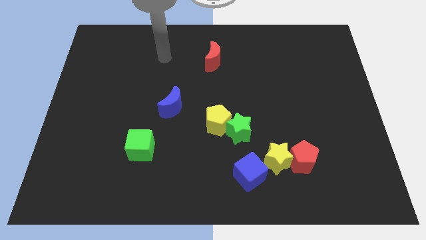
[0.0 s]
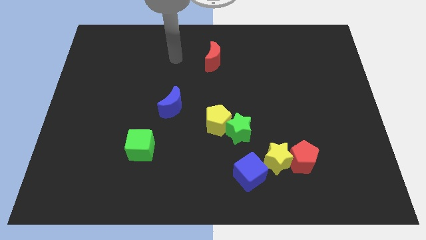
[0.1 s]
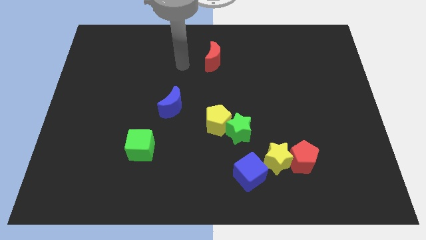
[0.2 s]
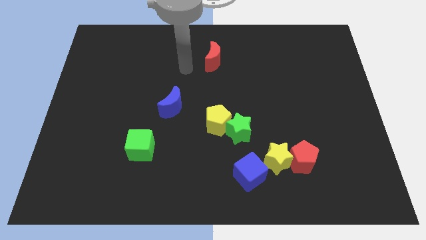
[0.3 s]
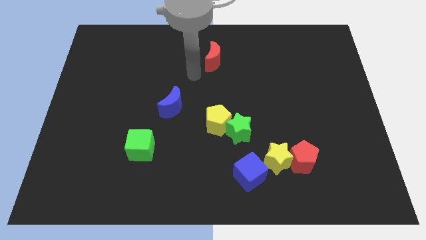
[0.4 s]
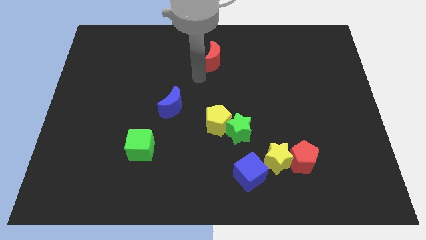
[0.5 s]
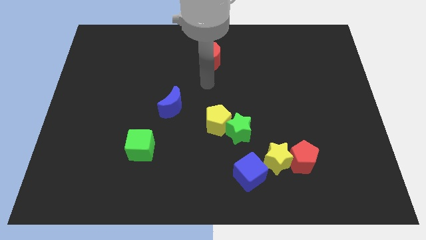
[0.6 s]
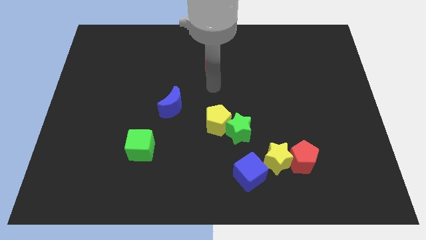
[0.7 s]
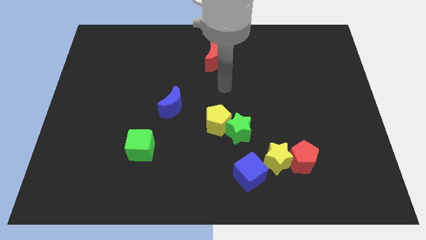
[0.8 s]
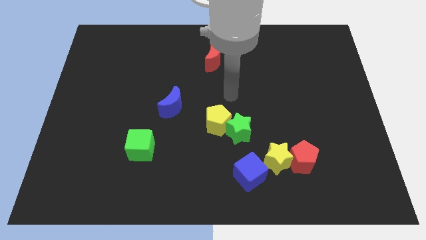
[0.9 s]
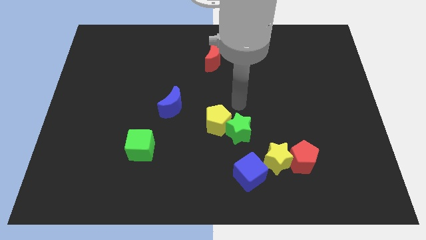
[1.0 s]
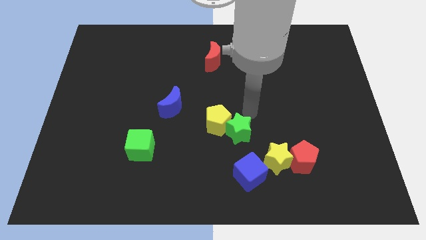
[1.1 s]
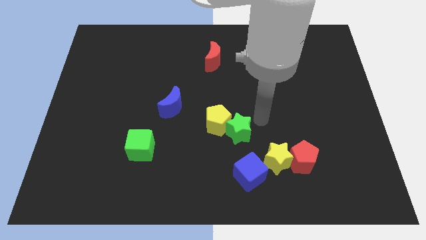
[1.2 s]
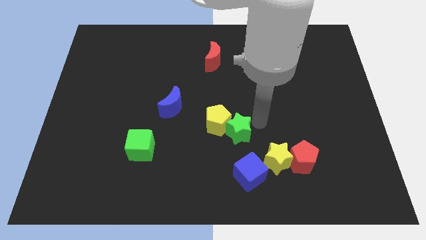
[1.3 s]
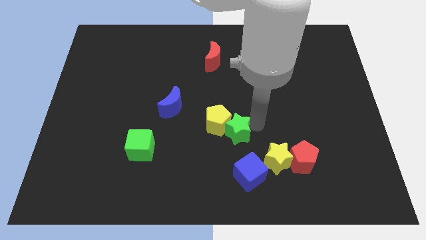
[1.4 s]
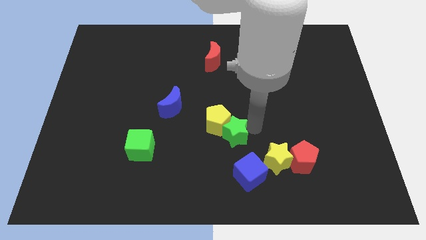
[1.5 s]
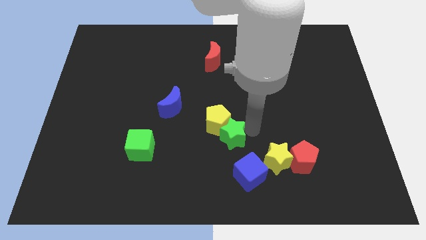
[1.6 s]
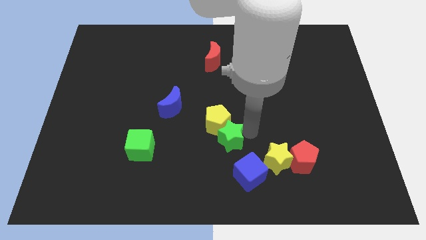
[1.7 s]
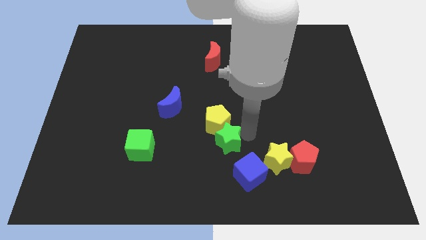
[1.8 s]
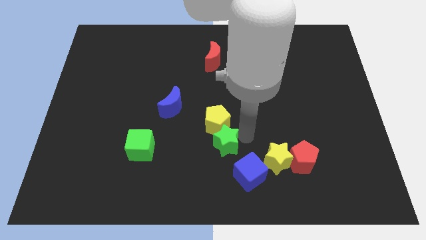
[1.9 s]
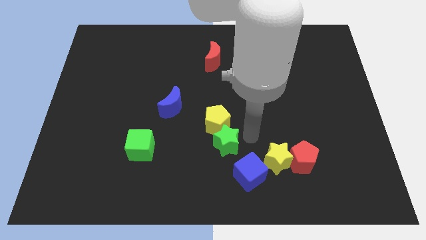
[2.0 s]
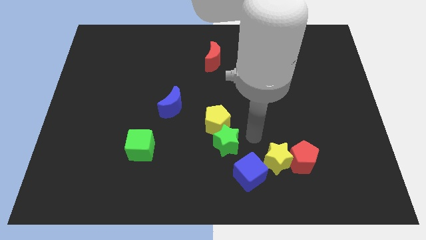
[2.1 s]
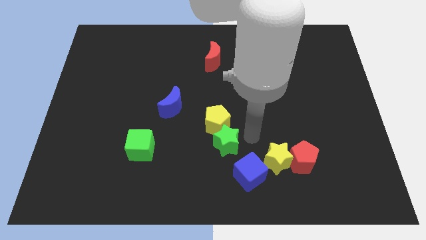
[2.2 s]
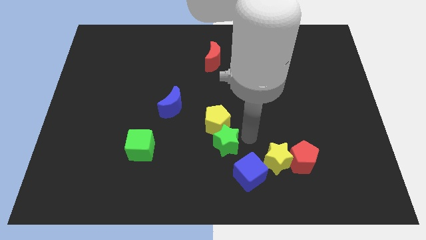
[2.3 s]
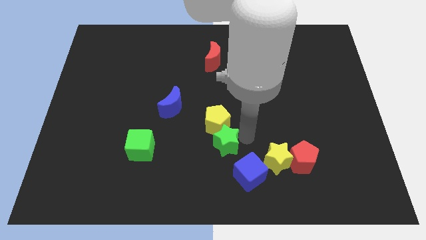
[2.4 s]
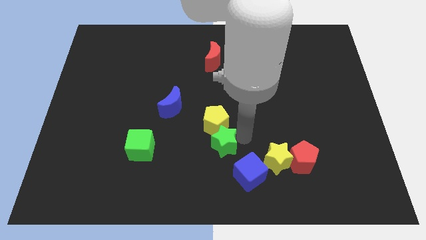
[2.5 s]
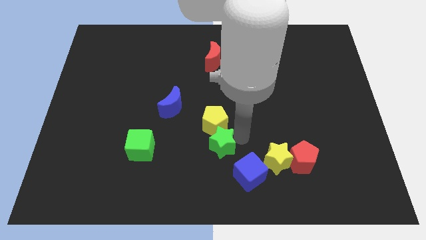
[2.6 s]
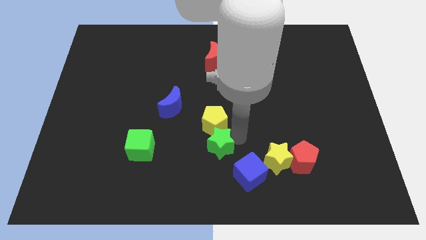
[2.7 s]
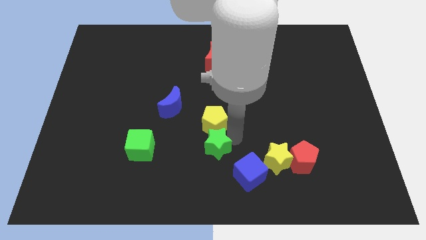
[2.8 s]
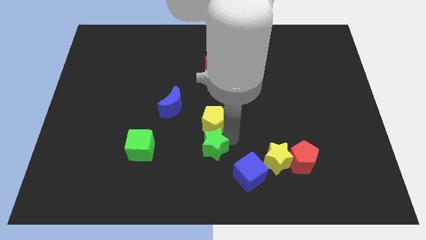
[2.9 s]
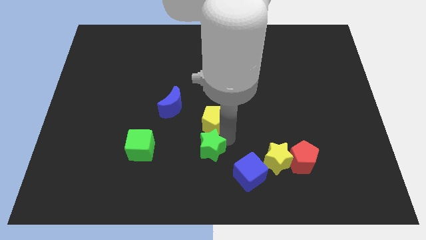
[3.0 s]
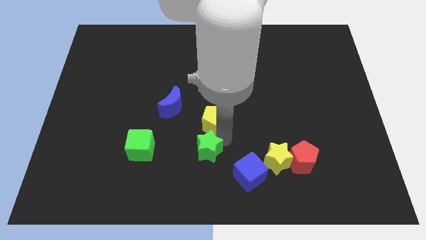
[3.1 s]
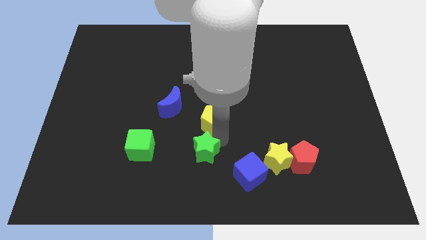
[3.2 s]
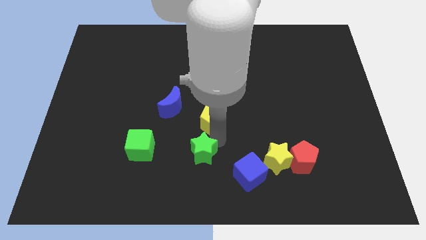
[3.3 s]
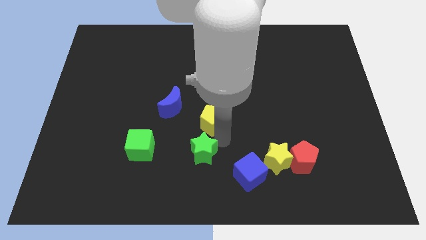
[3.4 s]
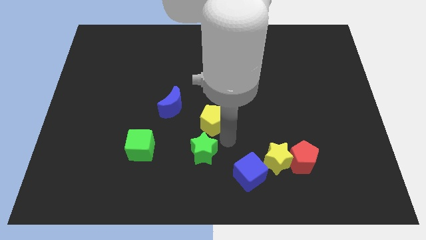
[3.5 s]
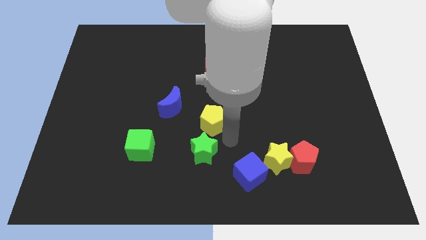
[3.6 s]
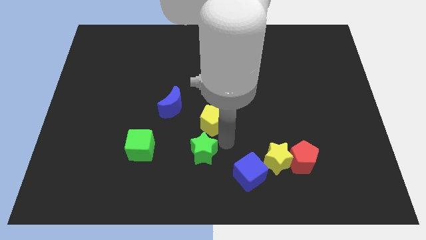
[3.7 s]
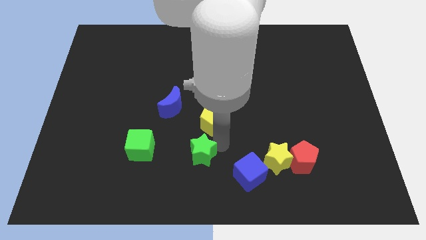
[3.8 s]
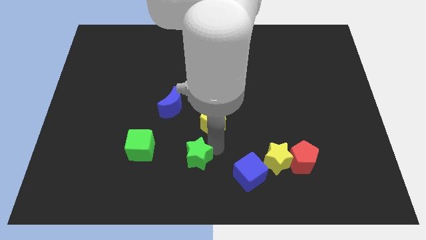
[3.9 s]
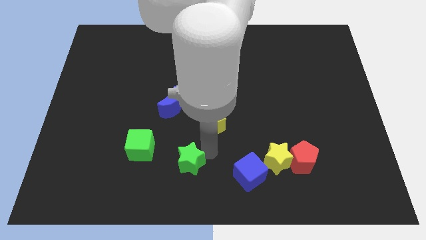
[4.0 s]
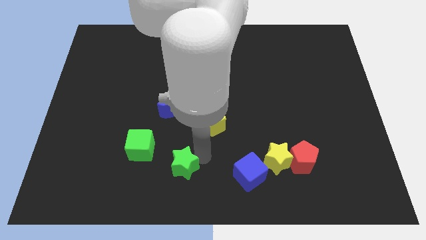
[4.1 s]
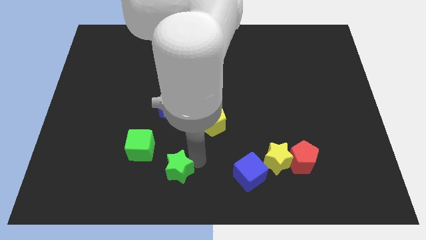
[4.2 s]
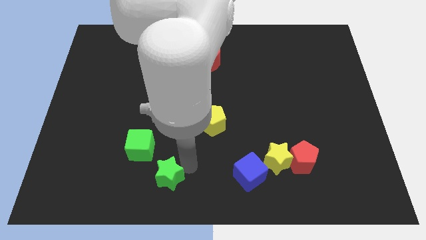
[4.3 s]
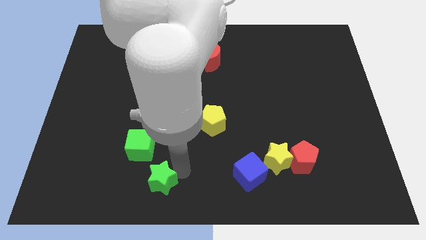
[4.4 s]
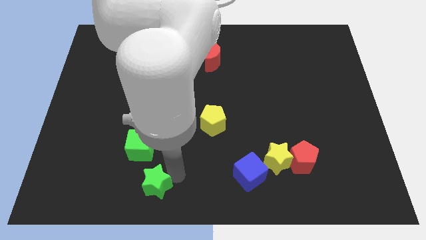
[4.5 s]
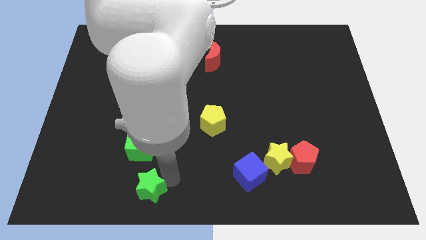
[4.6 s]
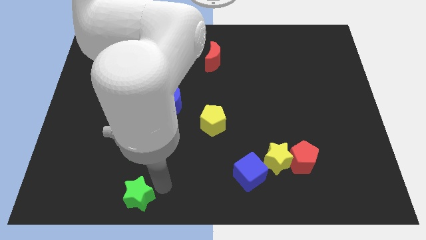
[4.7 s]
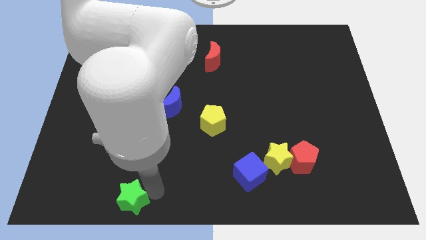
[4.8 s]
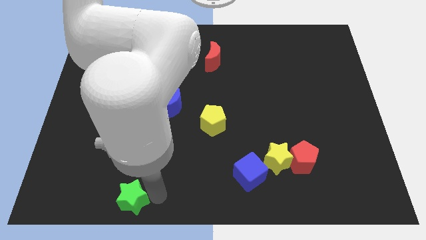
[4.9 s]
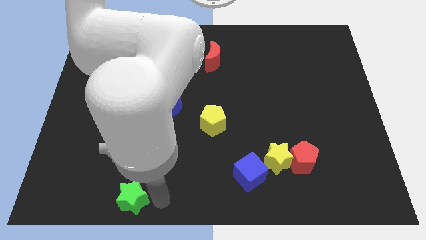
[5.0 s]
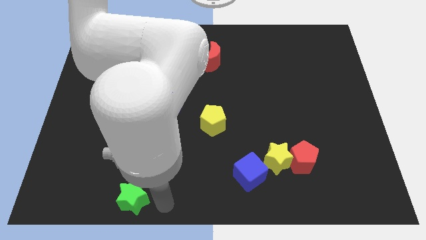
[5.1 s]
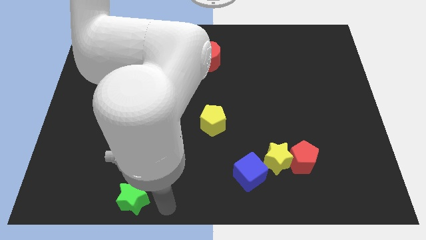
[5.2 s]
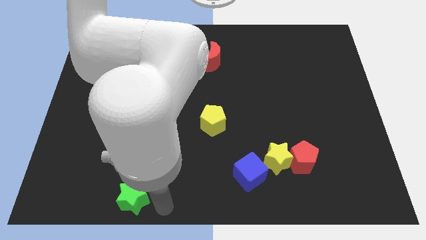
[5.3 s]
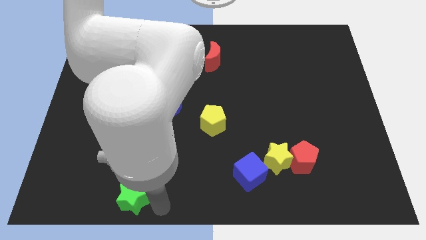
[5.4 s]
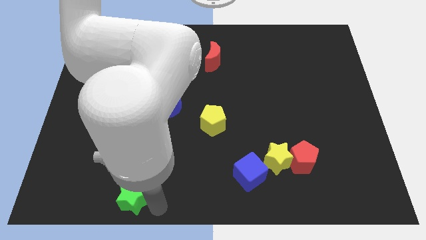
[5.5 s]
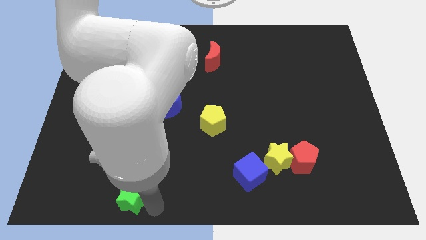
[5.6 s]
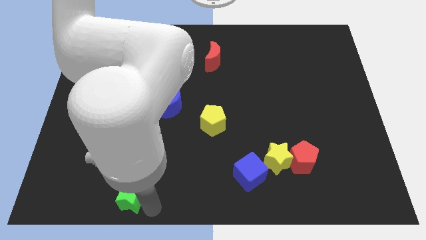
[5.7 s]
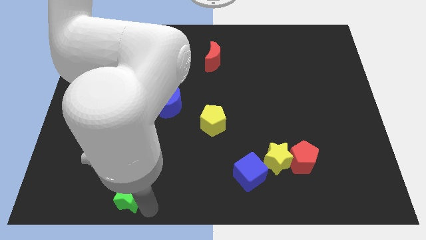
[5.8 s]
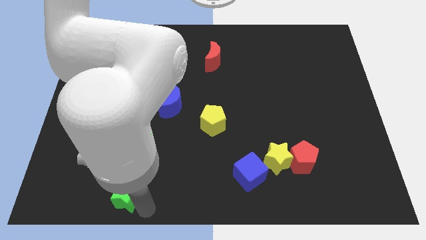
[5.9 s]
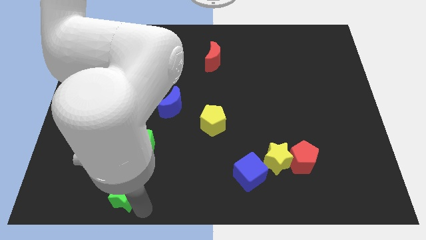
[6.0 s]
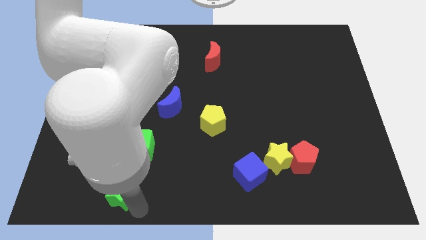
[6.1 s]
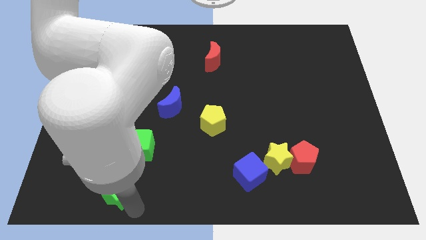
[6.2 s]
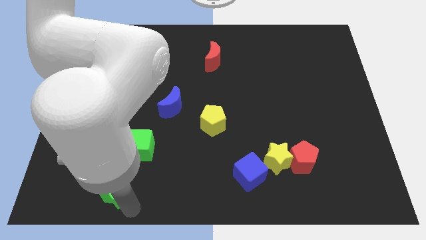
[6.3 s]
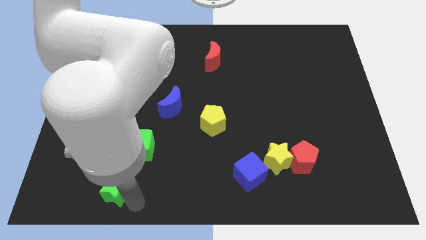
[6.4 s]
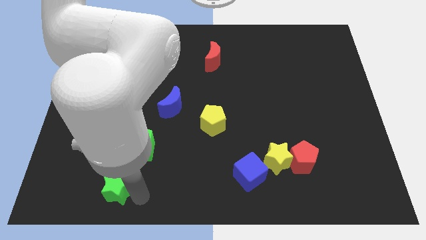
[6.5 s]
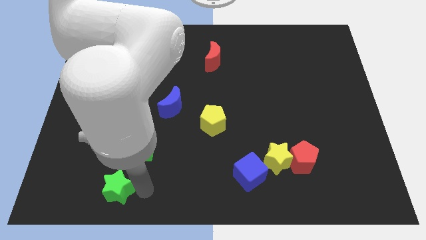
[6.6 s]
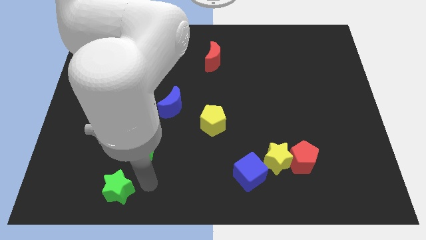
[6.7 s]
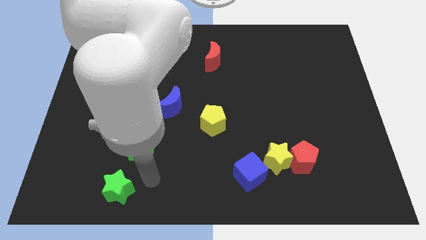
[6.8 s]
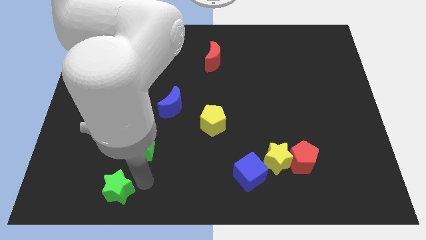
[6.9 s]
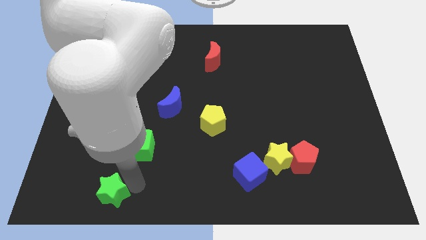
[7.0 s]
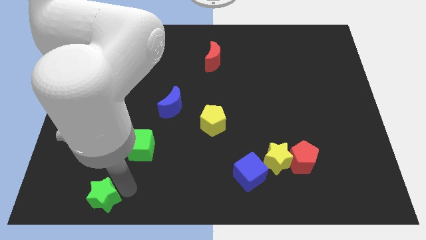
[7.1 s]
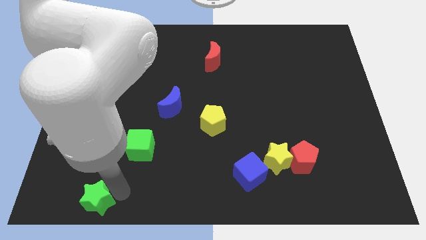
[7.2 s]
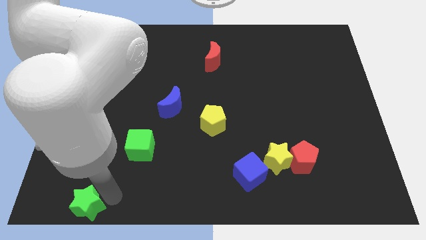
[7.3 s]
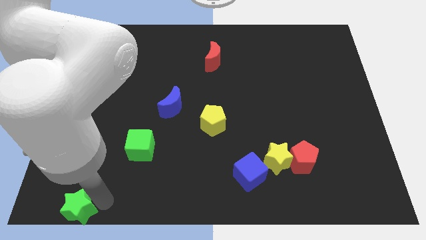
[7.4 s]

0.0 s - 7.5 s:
move the green star to the bottom left of the board
